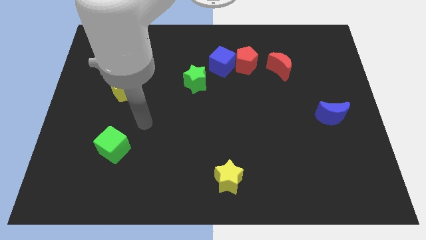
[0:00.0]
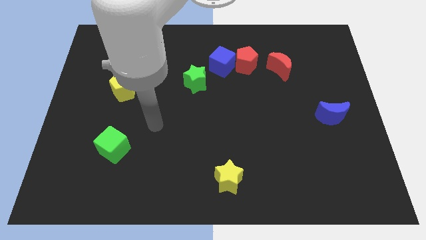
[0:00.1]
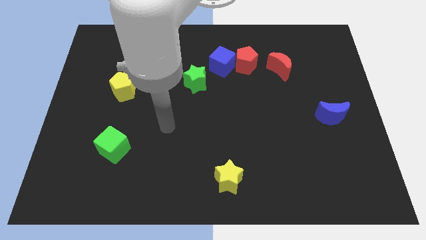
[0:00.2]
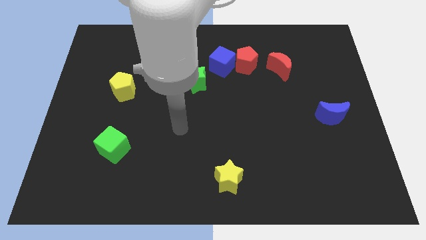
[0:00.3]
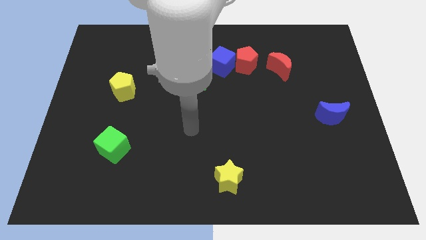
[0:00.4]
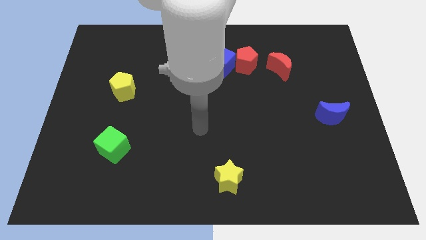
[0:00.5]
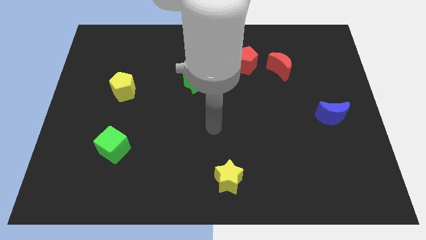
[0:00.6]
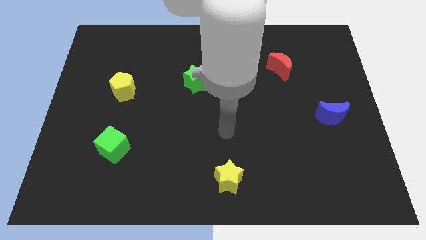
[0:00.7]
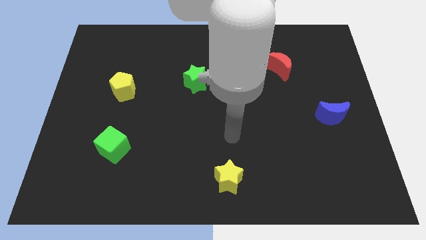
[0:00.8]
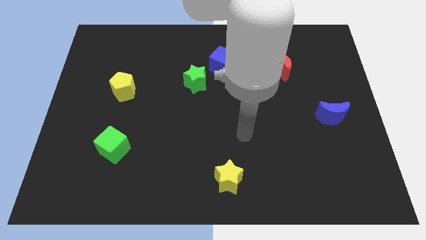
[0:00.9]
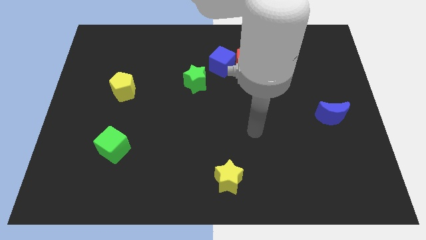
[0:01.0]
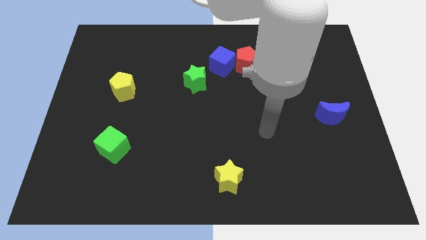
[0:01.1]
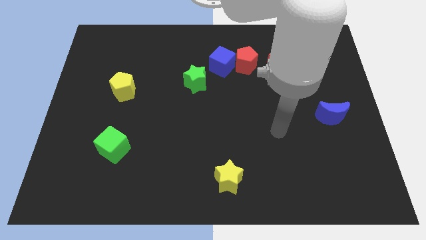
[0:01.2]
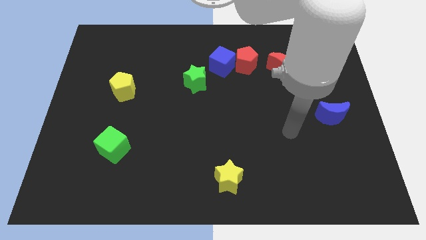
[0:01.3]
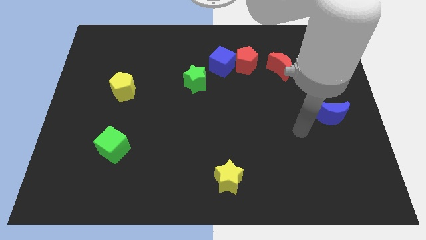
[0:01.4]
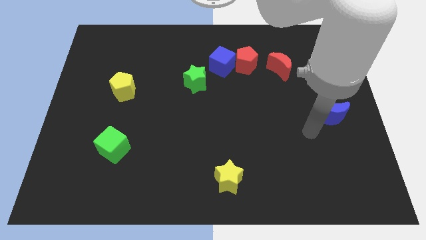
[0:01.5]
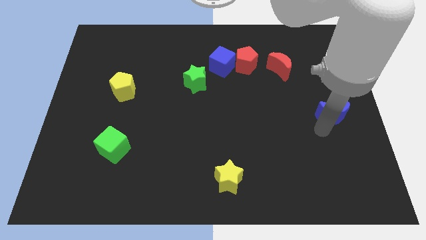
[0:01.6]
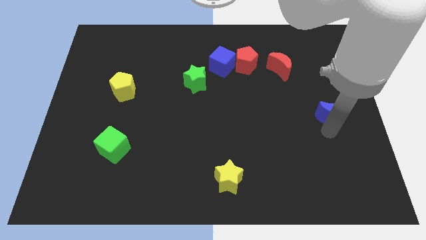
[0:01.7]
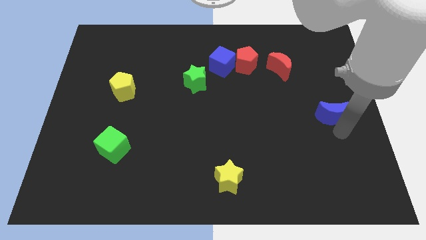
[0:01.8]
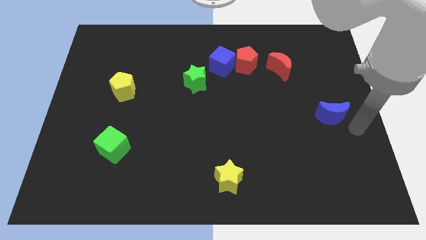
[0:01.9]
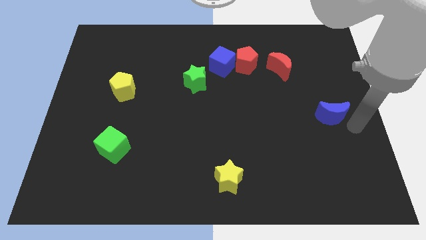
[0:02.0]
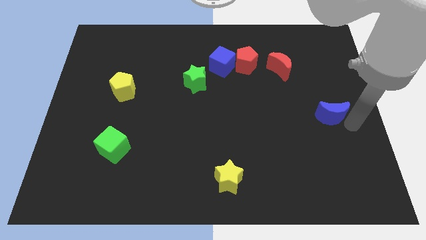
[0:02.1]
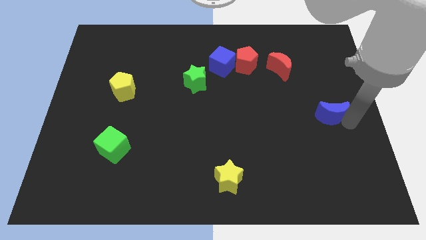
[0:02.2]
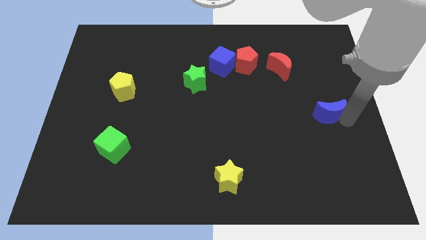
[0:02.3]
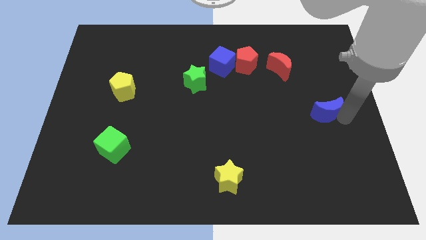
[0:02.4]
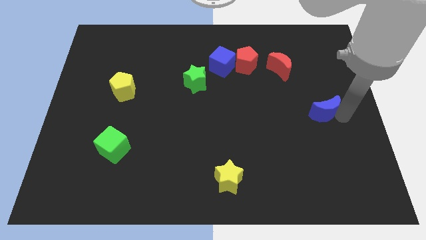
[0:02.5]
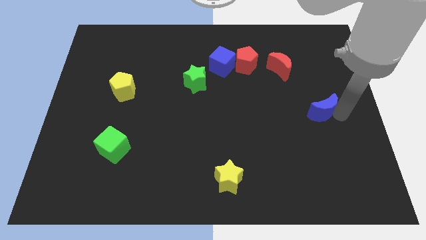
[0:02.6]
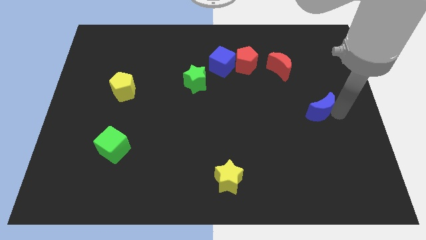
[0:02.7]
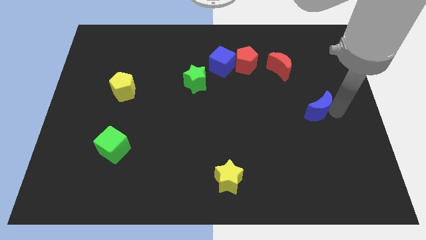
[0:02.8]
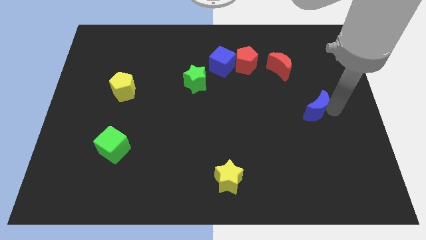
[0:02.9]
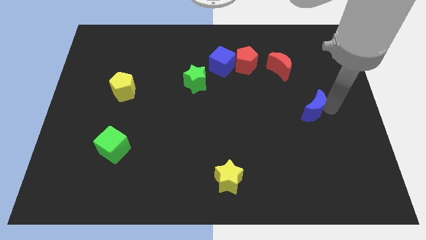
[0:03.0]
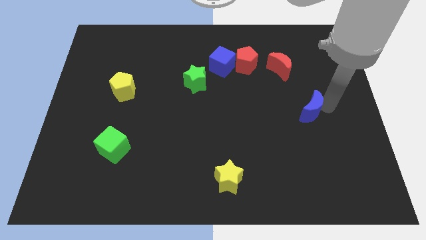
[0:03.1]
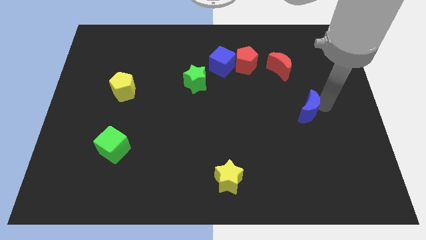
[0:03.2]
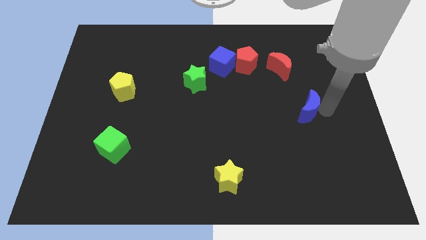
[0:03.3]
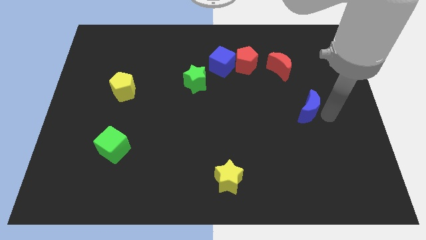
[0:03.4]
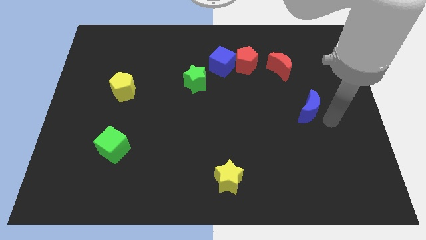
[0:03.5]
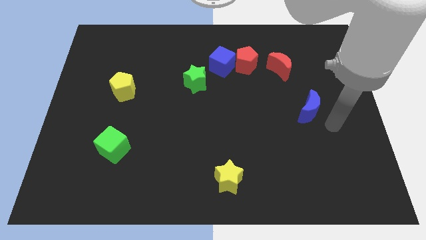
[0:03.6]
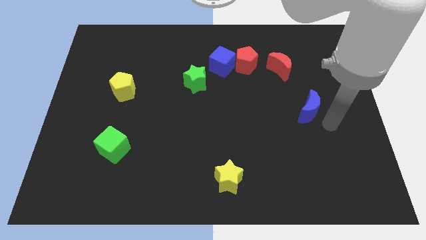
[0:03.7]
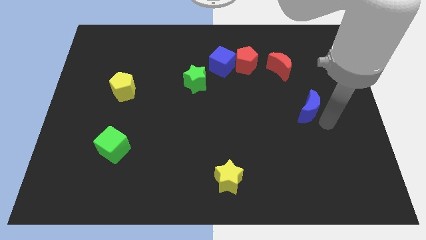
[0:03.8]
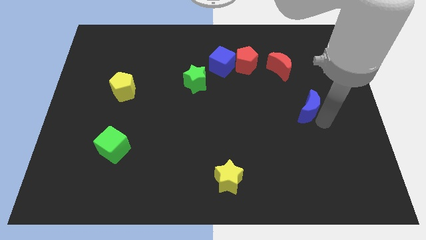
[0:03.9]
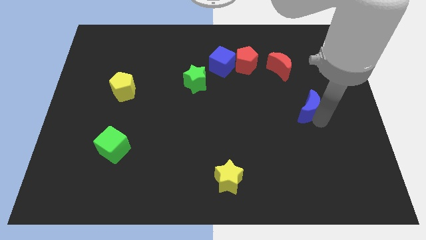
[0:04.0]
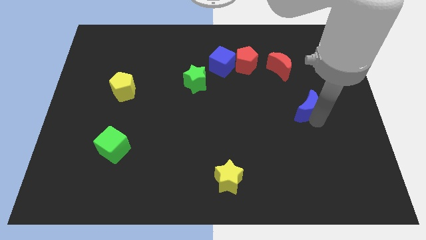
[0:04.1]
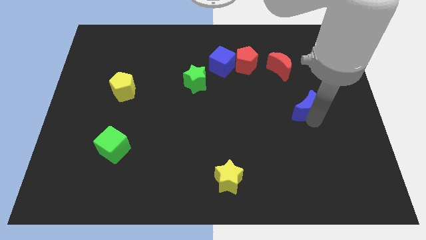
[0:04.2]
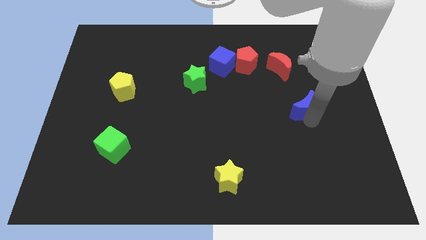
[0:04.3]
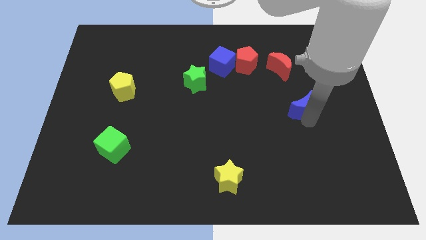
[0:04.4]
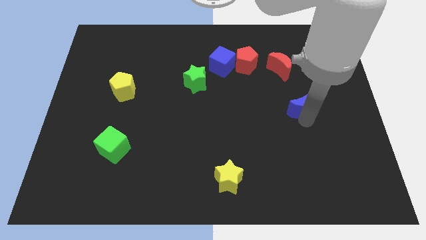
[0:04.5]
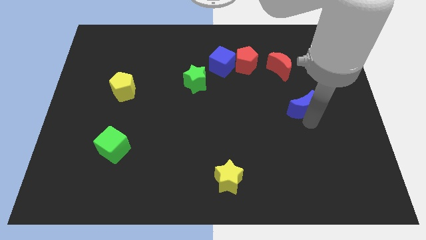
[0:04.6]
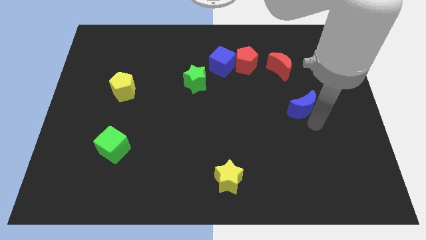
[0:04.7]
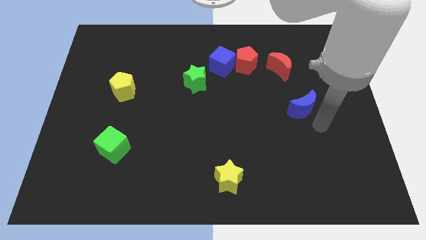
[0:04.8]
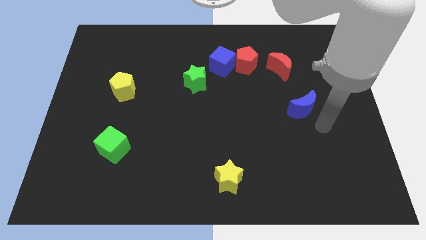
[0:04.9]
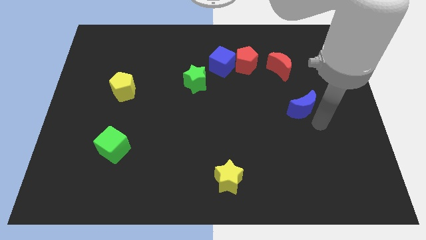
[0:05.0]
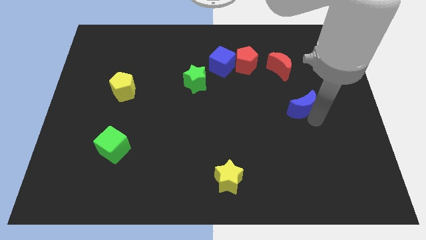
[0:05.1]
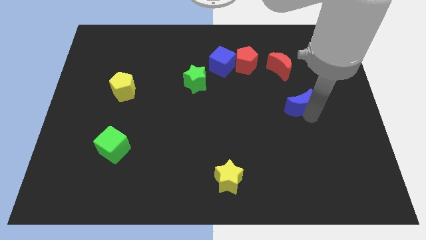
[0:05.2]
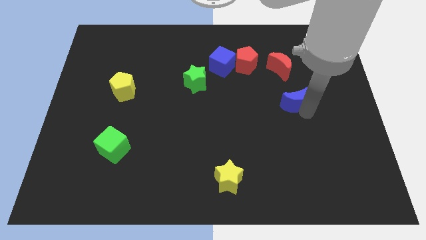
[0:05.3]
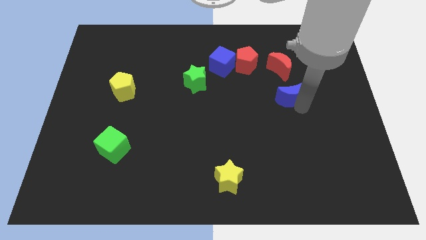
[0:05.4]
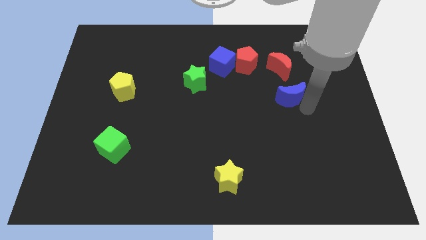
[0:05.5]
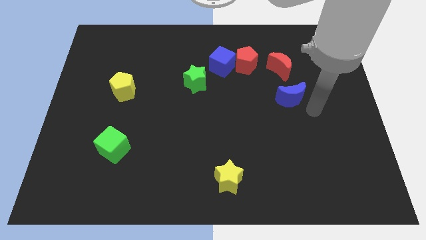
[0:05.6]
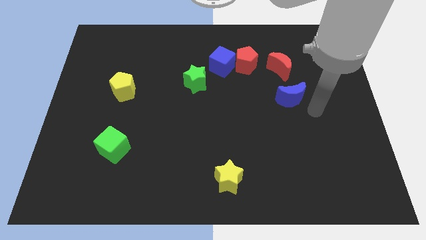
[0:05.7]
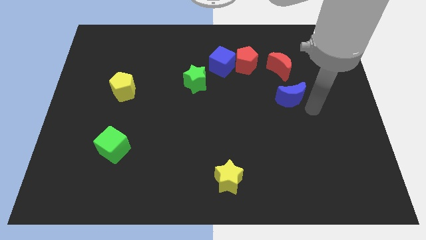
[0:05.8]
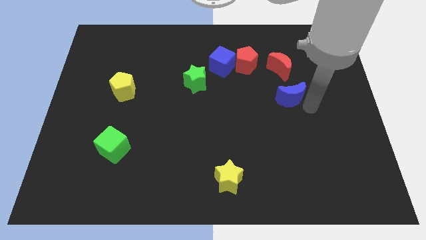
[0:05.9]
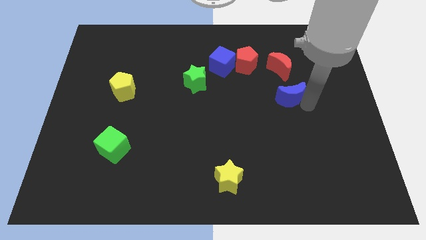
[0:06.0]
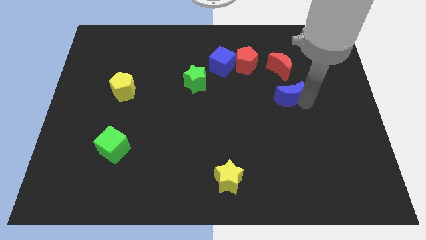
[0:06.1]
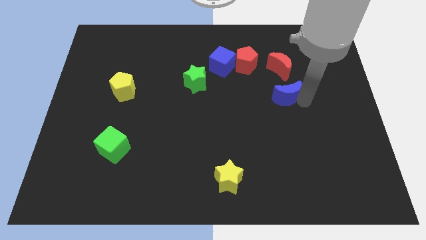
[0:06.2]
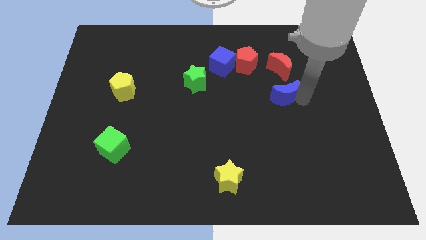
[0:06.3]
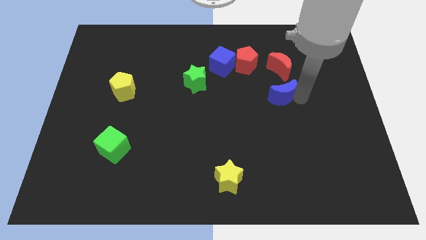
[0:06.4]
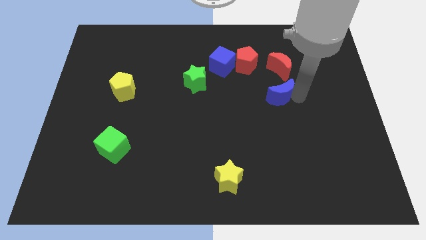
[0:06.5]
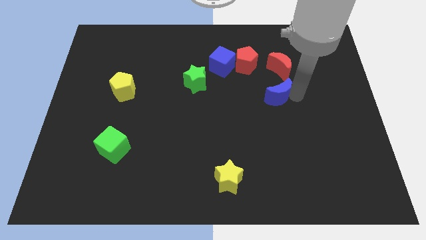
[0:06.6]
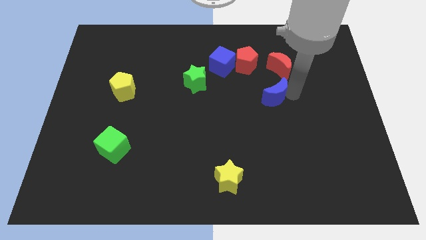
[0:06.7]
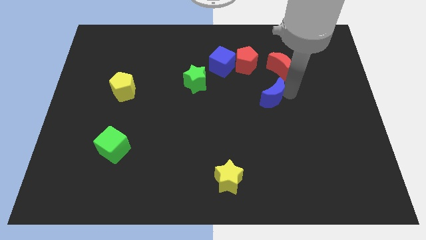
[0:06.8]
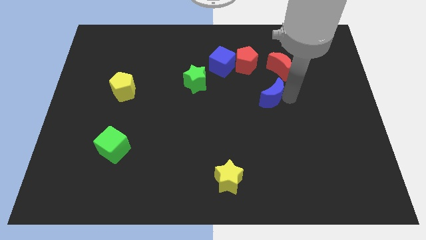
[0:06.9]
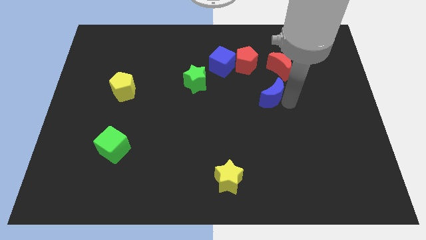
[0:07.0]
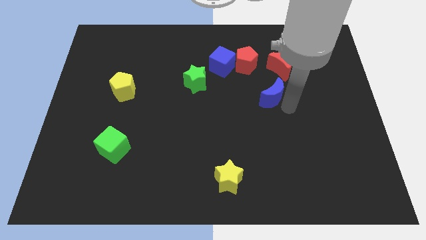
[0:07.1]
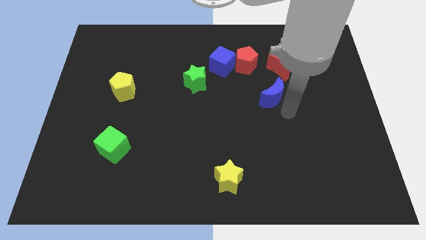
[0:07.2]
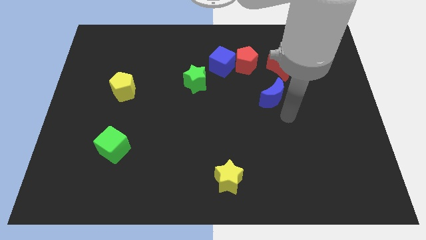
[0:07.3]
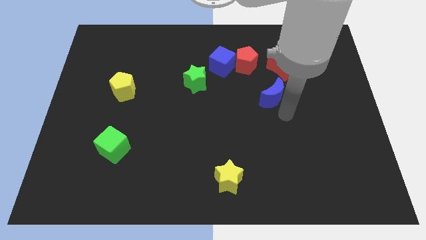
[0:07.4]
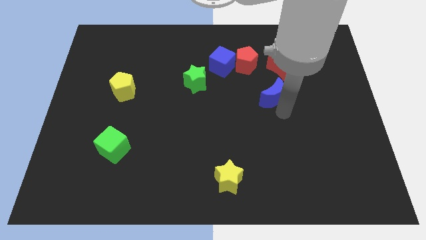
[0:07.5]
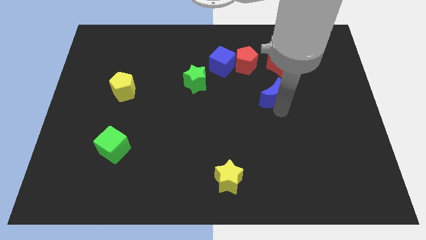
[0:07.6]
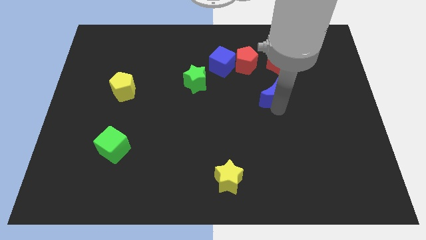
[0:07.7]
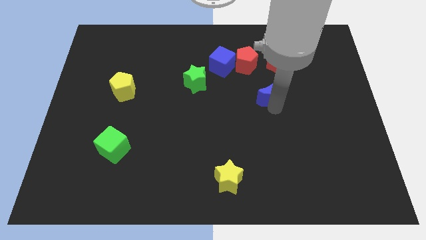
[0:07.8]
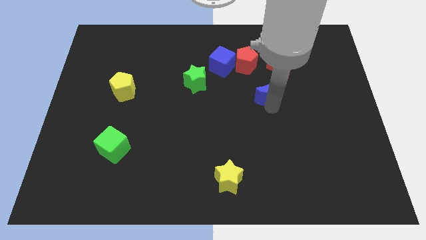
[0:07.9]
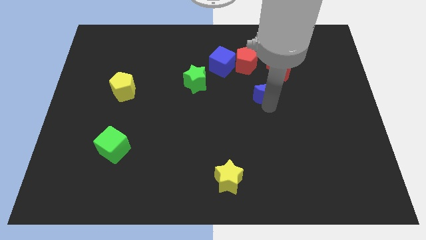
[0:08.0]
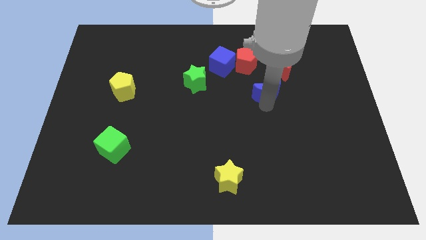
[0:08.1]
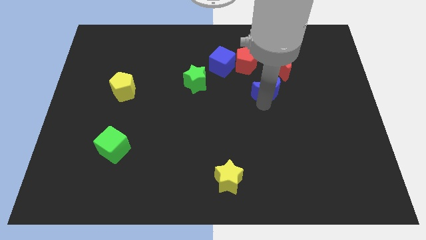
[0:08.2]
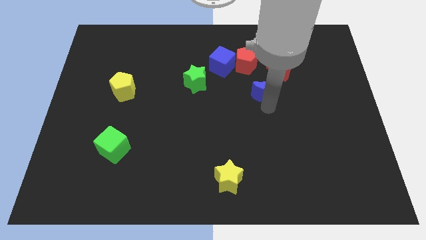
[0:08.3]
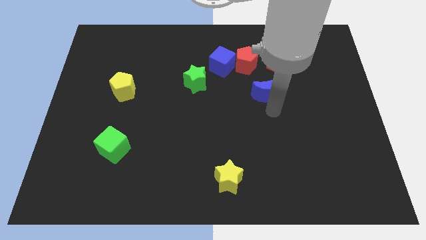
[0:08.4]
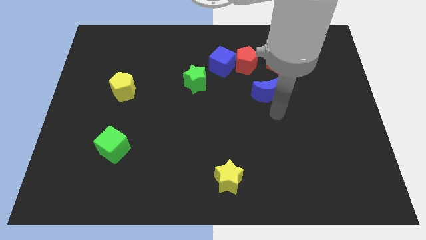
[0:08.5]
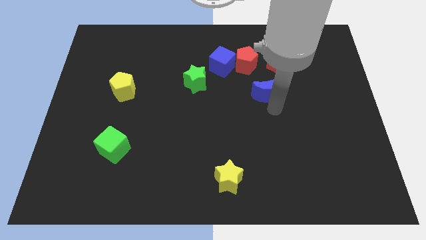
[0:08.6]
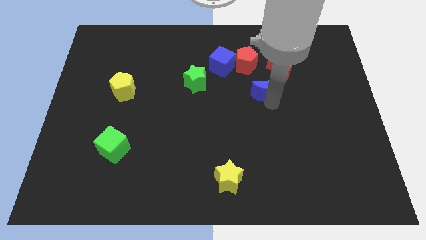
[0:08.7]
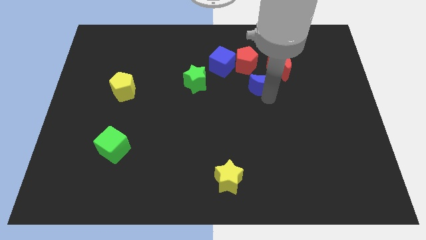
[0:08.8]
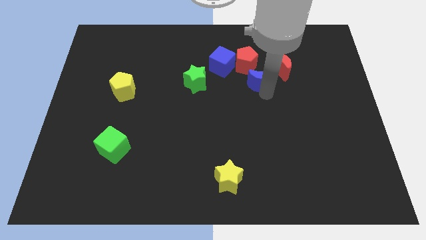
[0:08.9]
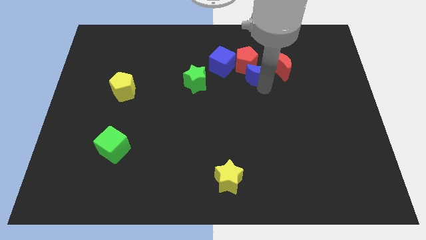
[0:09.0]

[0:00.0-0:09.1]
put the blue moon towards the red pentagon
